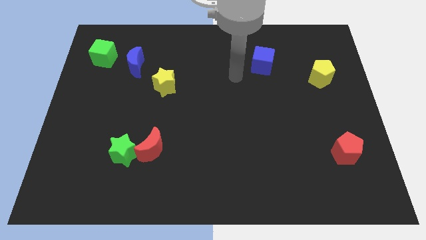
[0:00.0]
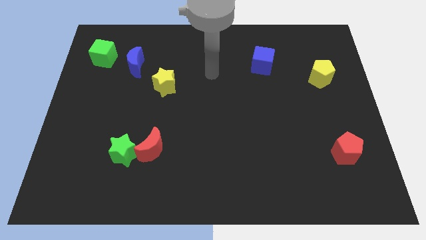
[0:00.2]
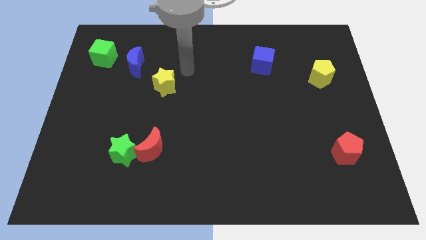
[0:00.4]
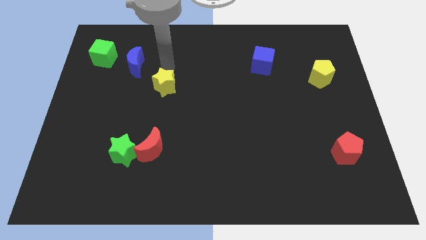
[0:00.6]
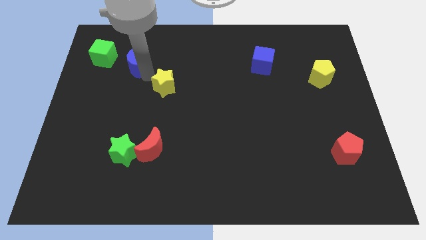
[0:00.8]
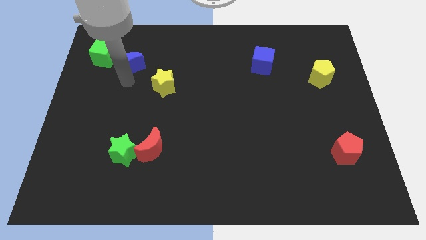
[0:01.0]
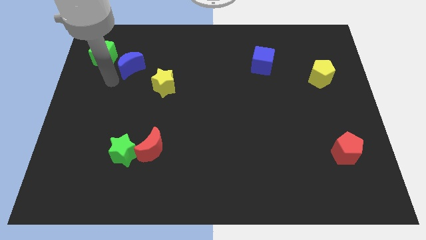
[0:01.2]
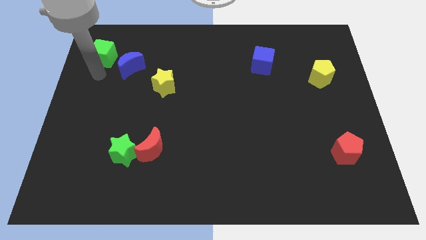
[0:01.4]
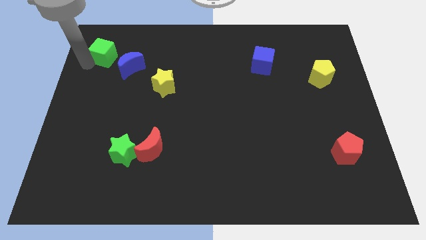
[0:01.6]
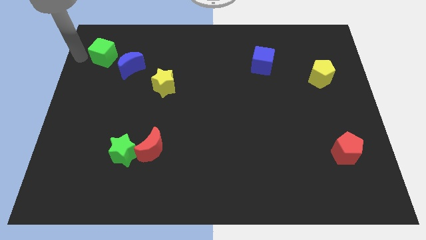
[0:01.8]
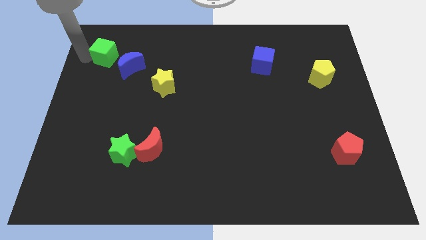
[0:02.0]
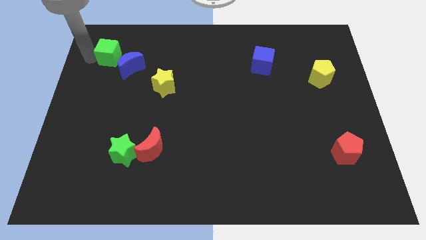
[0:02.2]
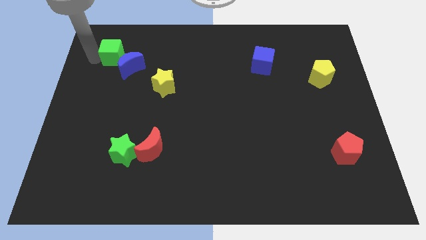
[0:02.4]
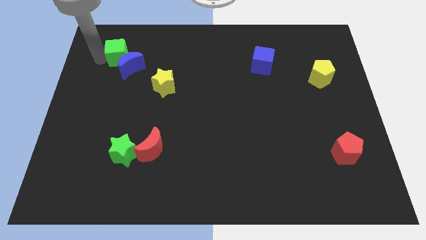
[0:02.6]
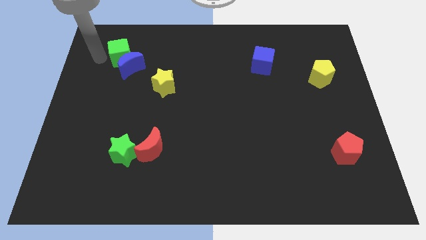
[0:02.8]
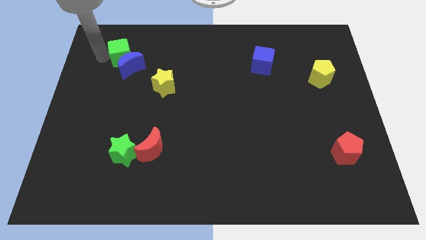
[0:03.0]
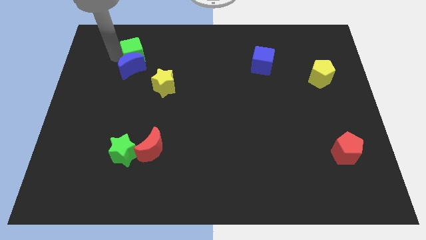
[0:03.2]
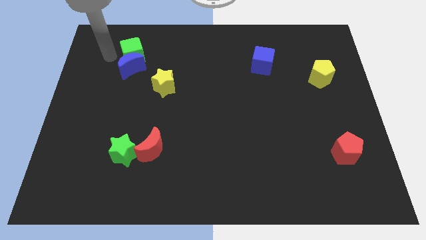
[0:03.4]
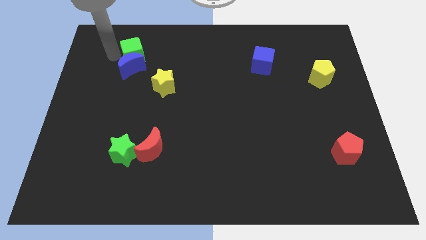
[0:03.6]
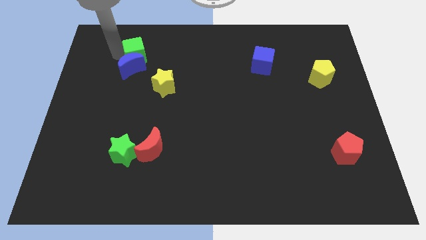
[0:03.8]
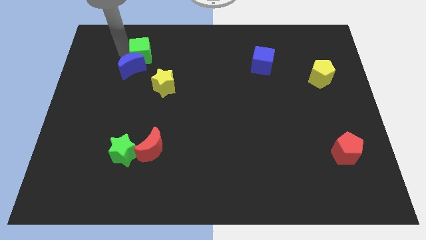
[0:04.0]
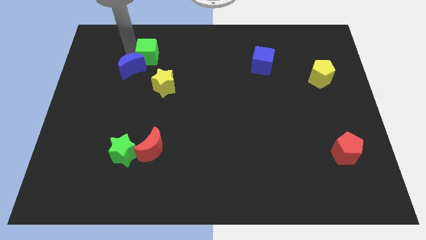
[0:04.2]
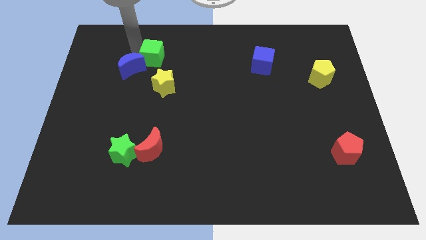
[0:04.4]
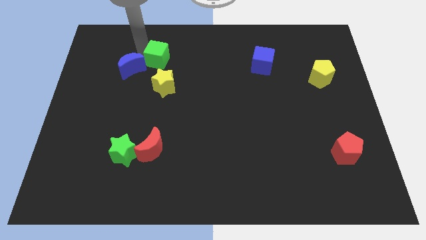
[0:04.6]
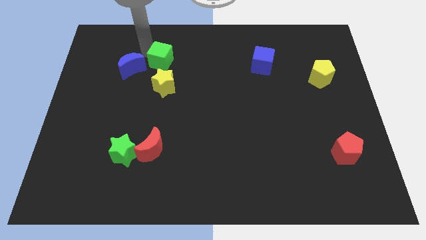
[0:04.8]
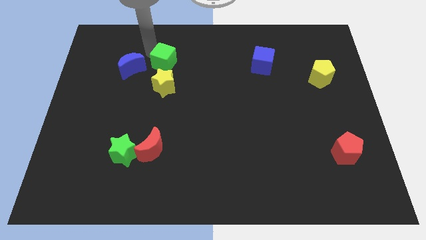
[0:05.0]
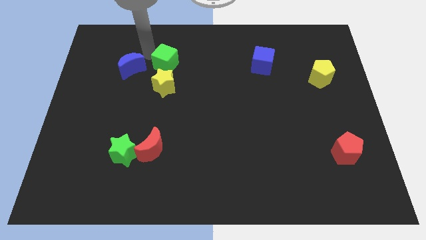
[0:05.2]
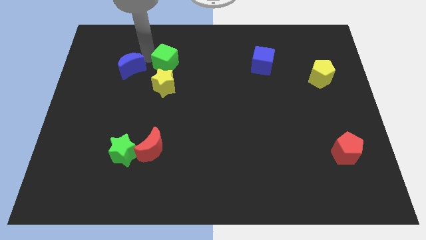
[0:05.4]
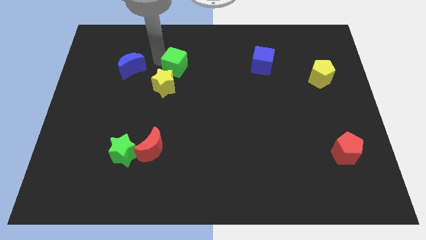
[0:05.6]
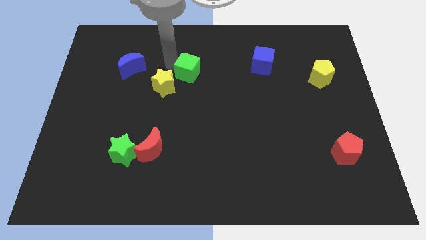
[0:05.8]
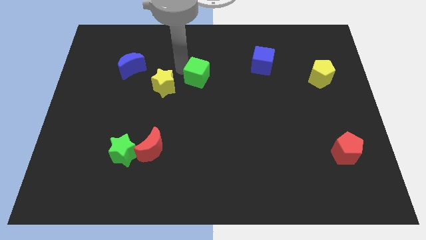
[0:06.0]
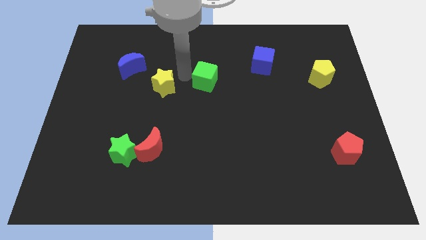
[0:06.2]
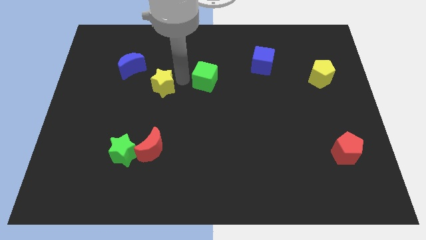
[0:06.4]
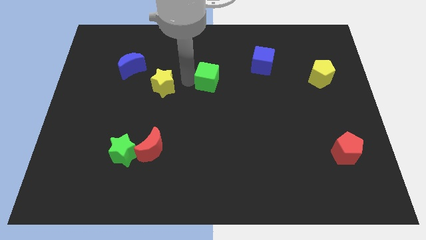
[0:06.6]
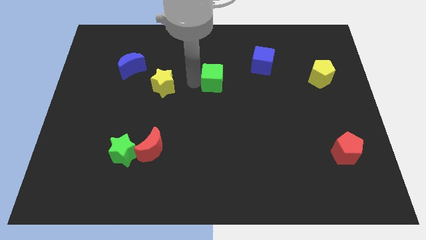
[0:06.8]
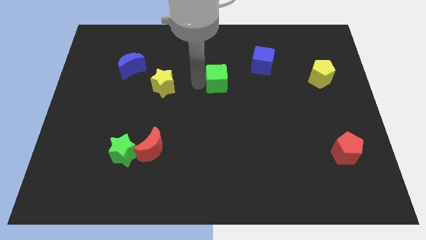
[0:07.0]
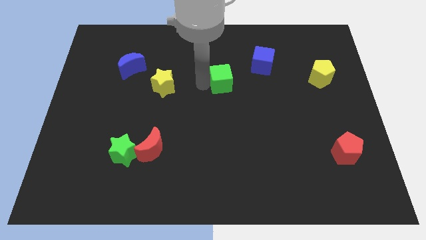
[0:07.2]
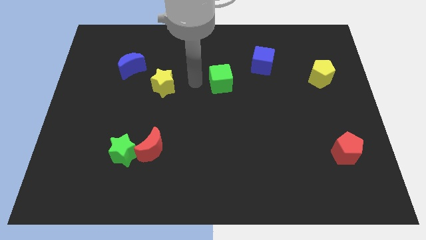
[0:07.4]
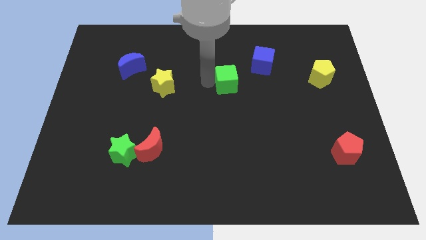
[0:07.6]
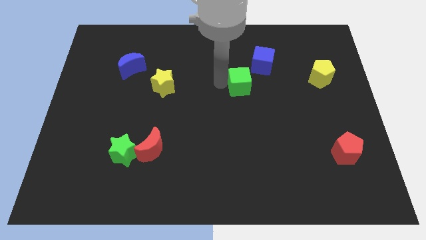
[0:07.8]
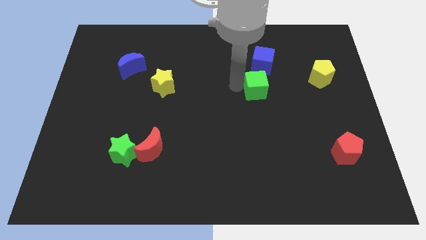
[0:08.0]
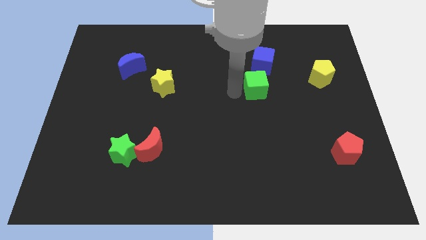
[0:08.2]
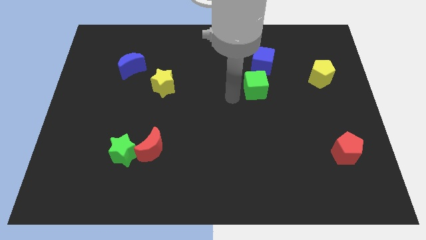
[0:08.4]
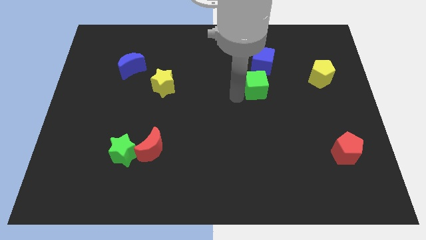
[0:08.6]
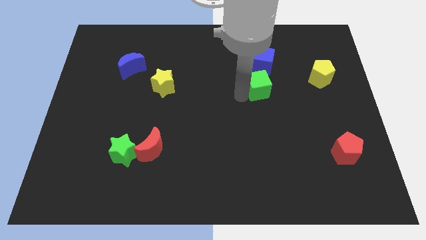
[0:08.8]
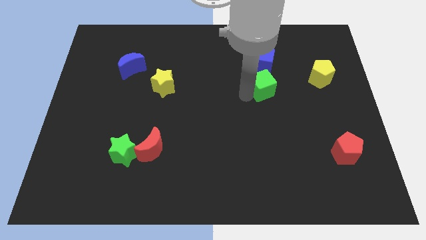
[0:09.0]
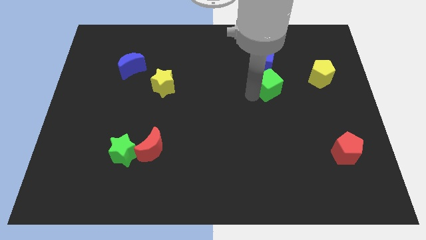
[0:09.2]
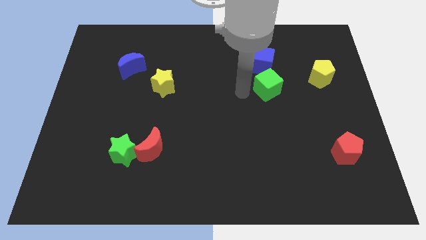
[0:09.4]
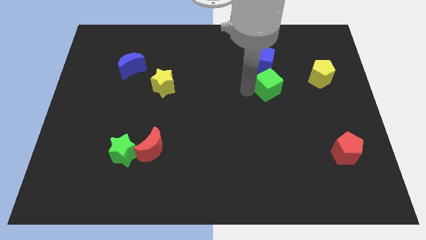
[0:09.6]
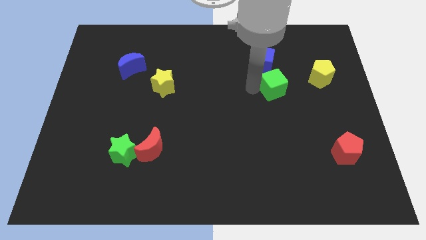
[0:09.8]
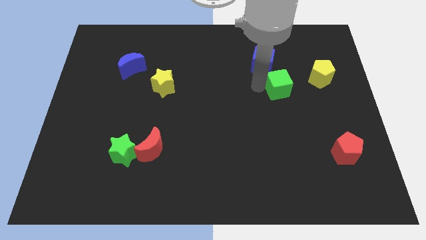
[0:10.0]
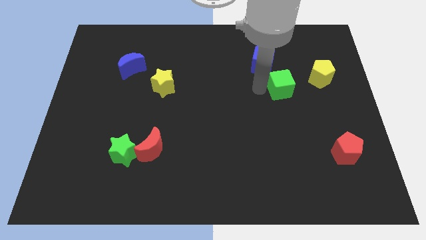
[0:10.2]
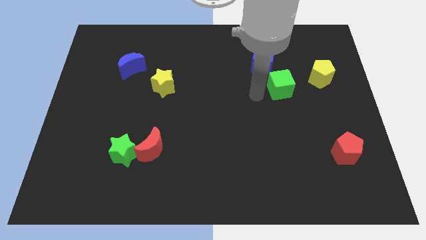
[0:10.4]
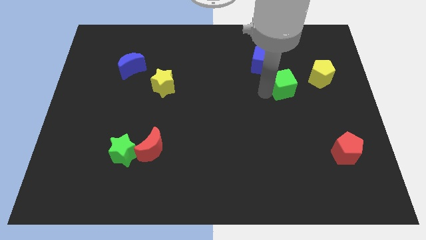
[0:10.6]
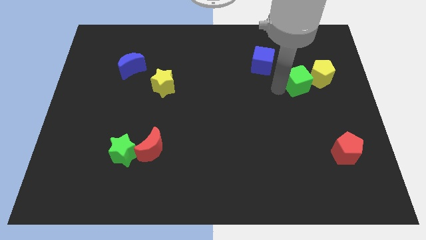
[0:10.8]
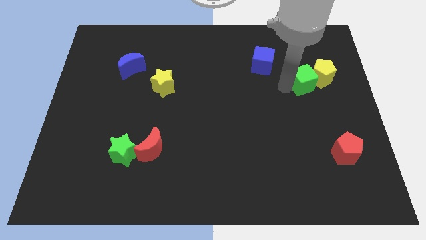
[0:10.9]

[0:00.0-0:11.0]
put the green cube to the yellow pentagon

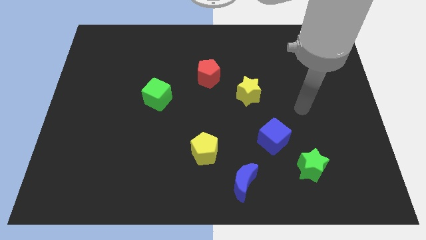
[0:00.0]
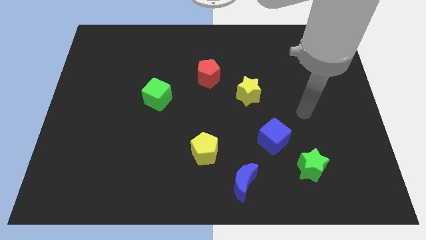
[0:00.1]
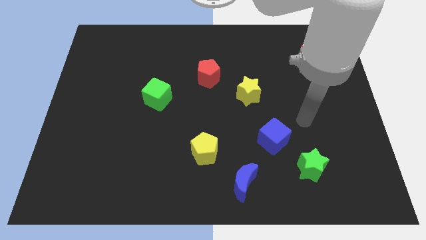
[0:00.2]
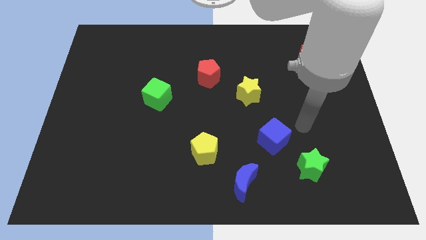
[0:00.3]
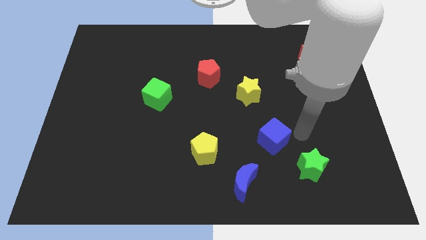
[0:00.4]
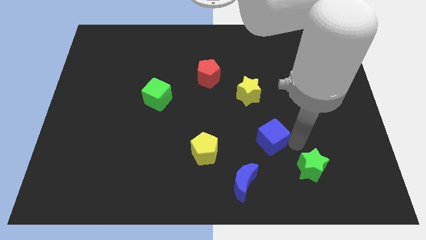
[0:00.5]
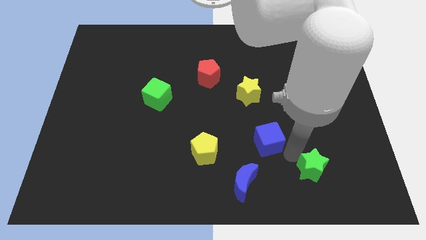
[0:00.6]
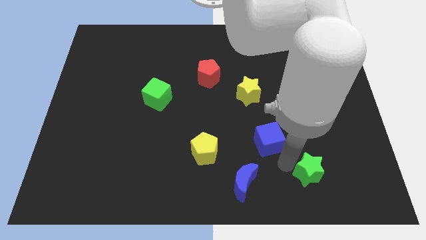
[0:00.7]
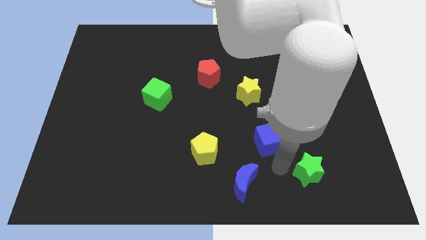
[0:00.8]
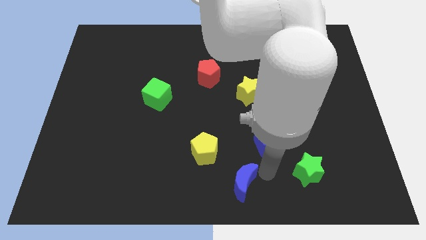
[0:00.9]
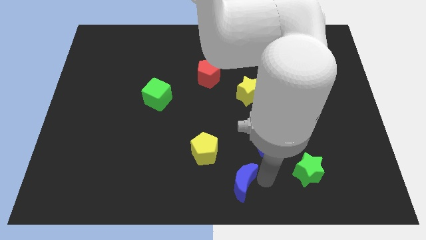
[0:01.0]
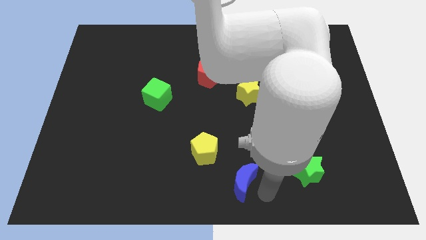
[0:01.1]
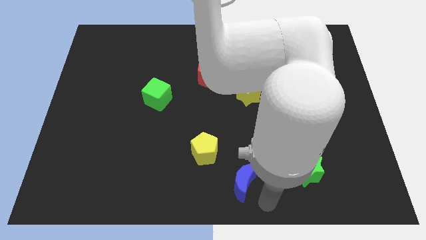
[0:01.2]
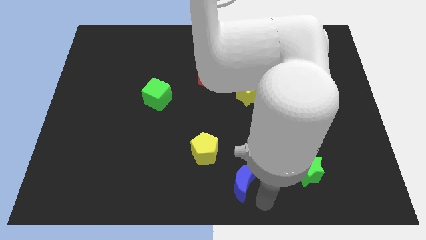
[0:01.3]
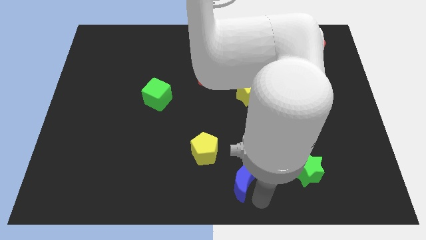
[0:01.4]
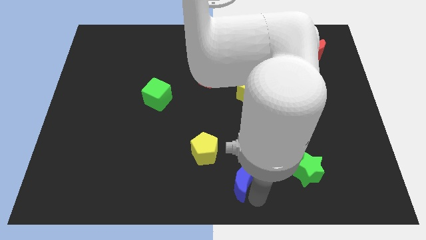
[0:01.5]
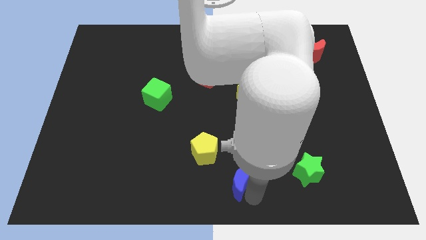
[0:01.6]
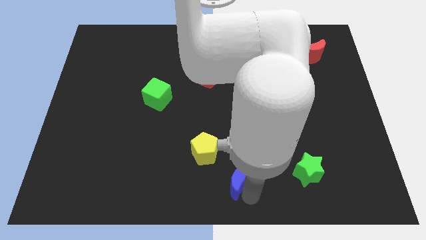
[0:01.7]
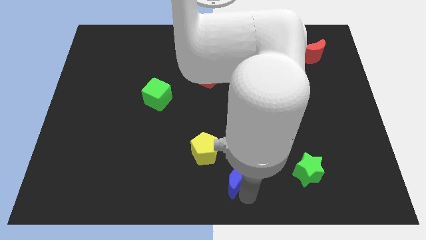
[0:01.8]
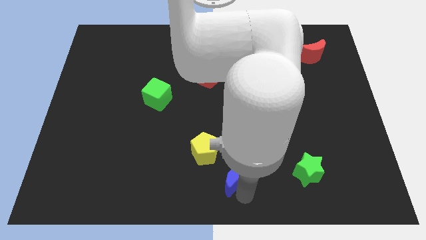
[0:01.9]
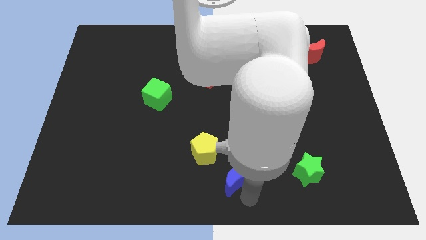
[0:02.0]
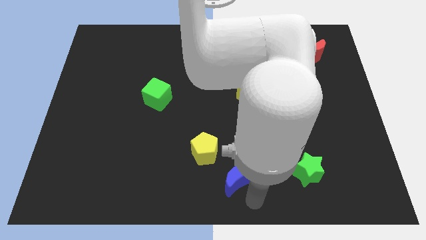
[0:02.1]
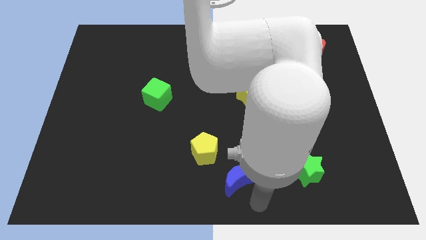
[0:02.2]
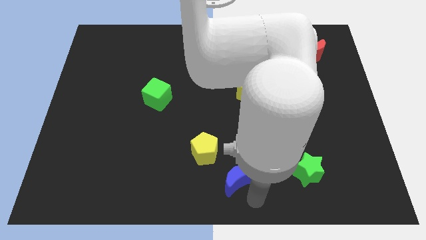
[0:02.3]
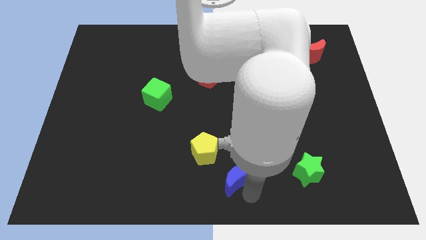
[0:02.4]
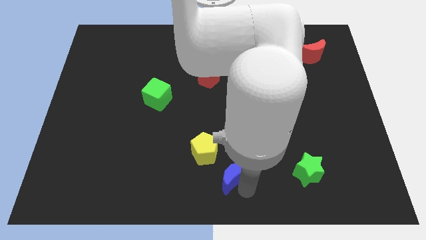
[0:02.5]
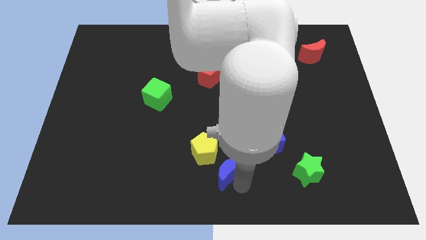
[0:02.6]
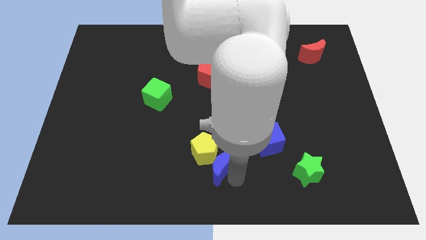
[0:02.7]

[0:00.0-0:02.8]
slide the blue moon next to the yellow pentagon
